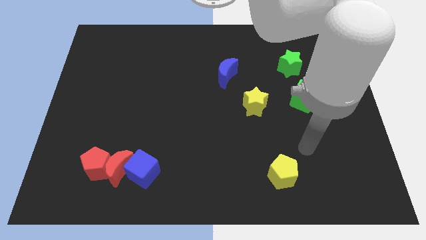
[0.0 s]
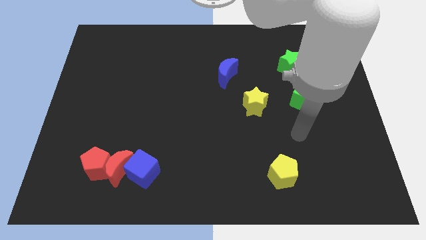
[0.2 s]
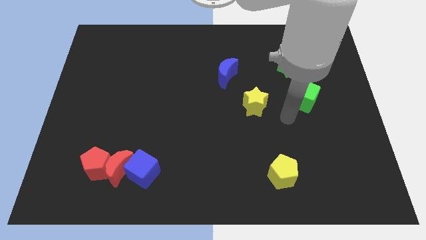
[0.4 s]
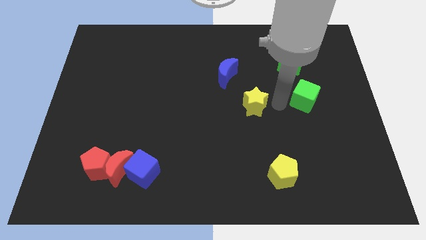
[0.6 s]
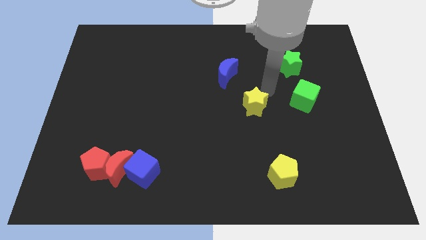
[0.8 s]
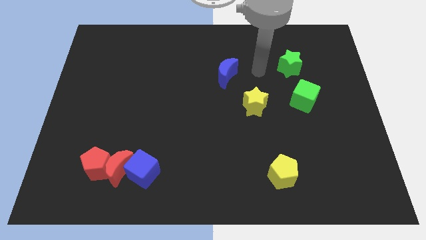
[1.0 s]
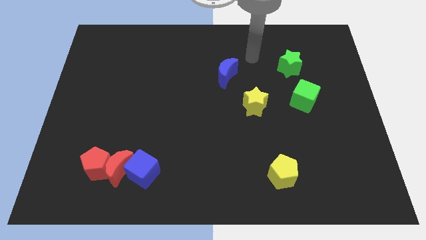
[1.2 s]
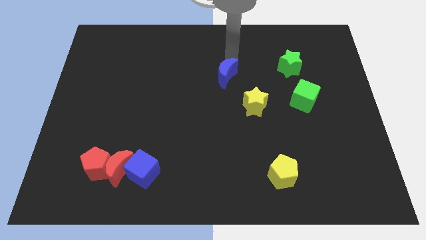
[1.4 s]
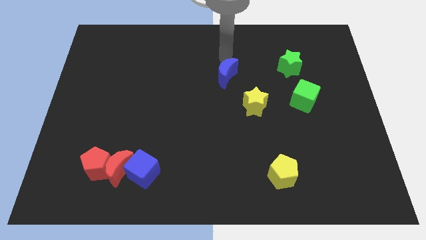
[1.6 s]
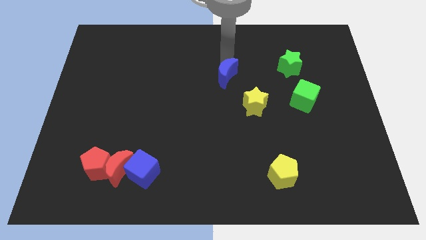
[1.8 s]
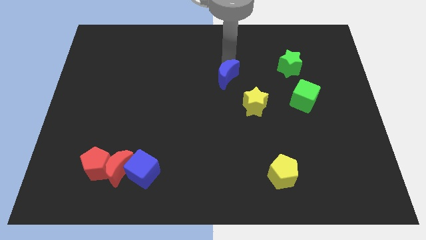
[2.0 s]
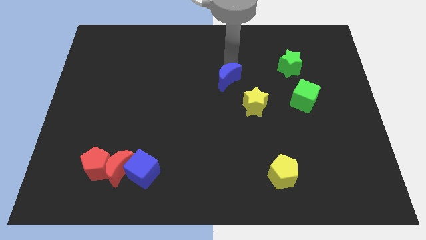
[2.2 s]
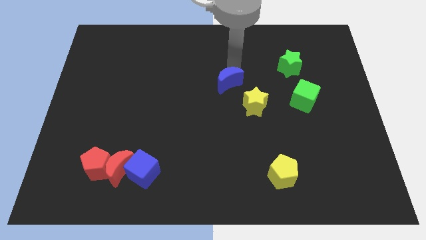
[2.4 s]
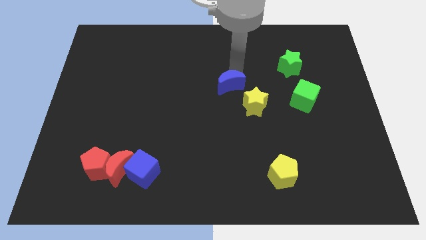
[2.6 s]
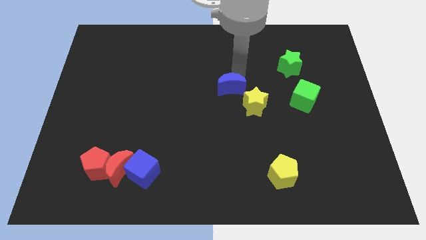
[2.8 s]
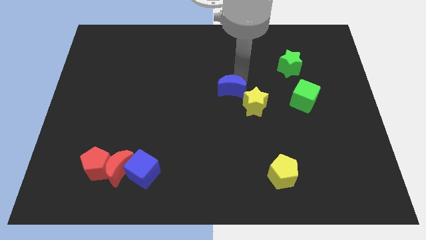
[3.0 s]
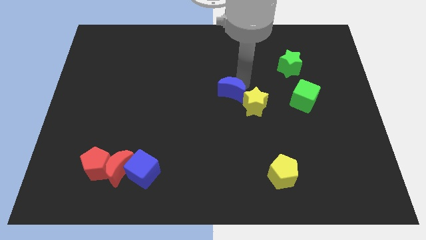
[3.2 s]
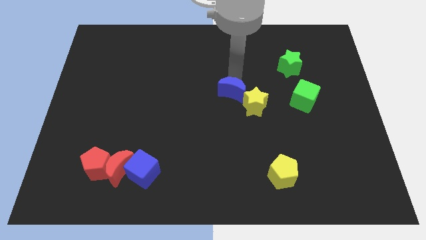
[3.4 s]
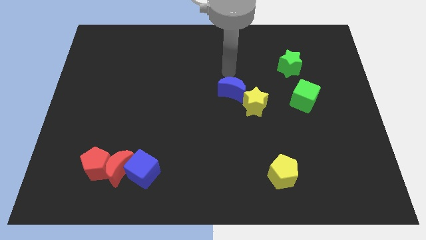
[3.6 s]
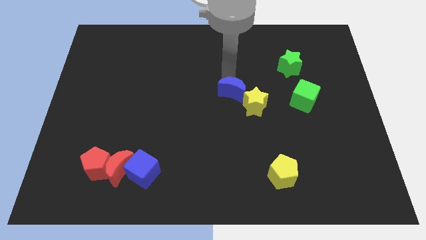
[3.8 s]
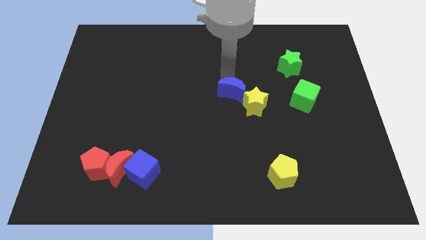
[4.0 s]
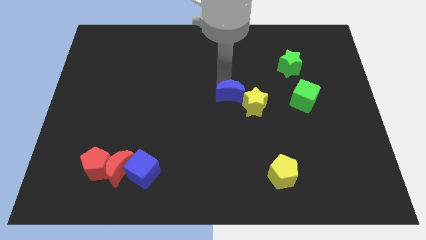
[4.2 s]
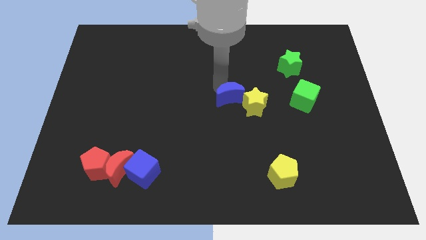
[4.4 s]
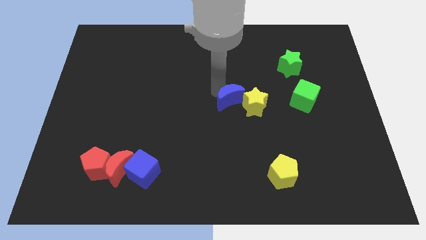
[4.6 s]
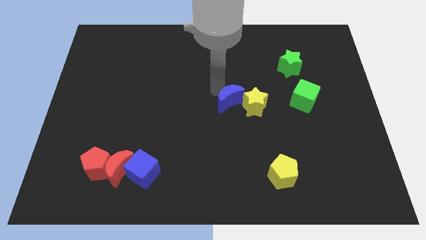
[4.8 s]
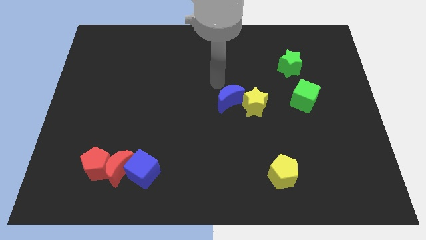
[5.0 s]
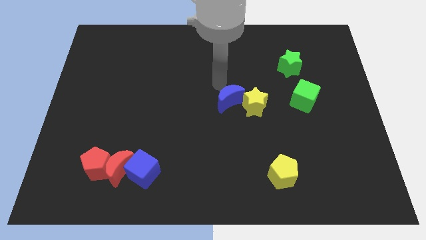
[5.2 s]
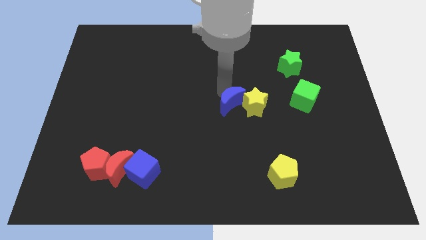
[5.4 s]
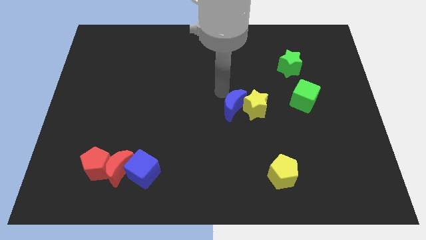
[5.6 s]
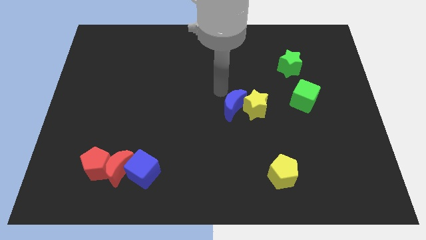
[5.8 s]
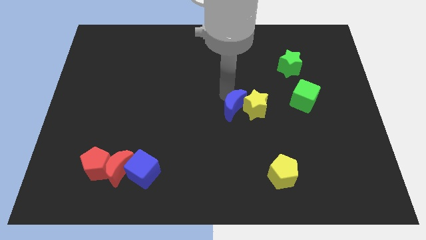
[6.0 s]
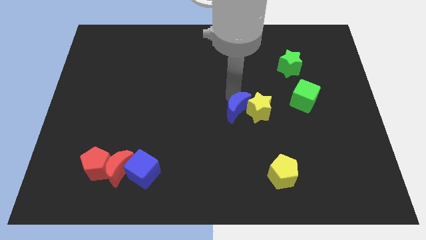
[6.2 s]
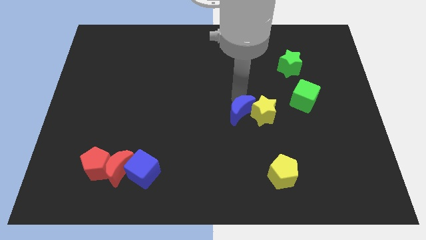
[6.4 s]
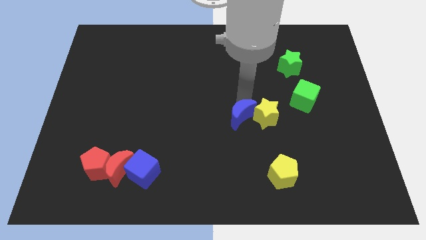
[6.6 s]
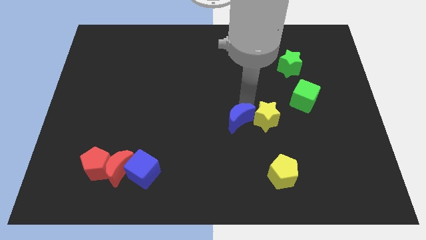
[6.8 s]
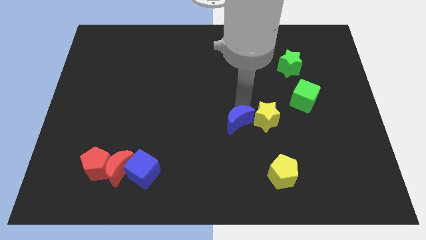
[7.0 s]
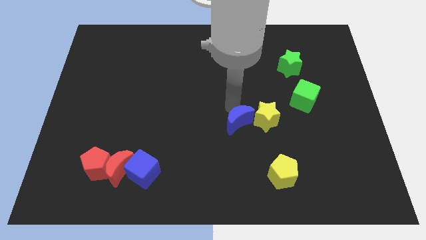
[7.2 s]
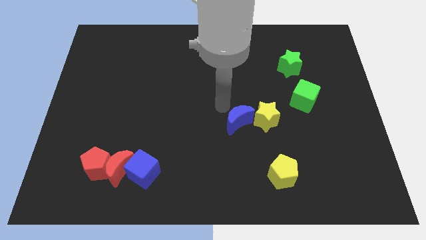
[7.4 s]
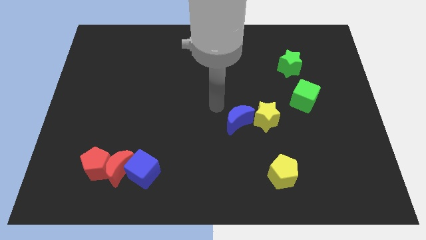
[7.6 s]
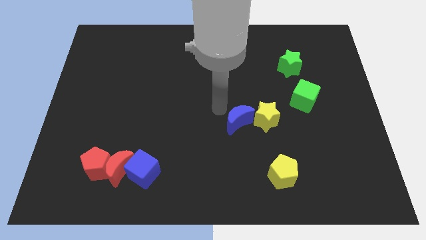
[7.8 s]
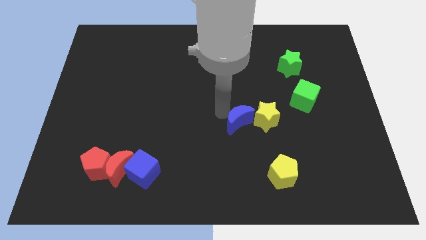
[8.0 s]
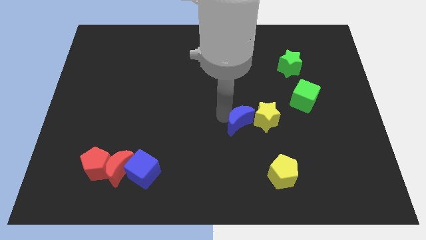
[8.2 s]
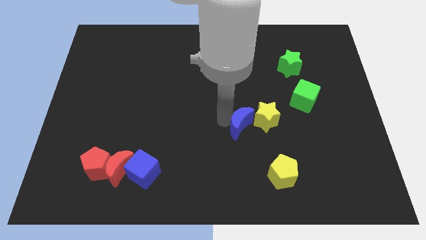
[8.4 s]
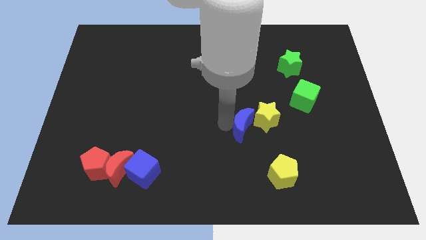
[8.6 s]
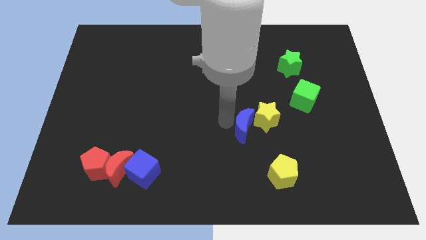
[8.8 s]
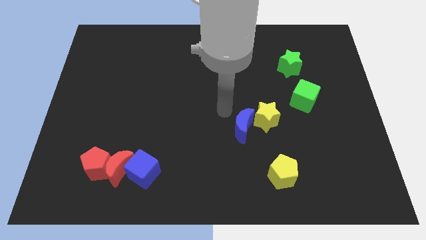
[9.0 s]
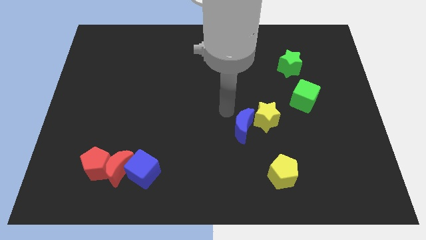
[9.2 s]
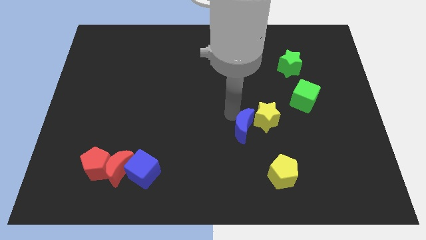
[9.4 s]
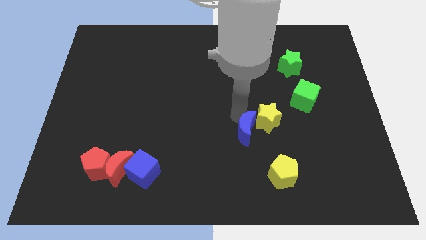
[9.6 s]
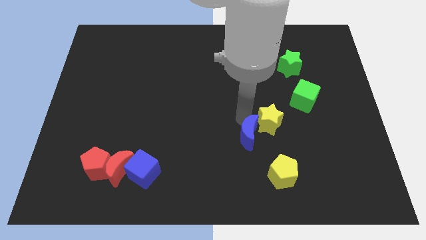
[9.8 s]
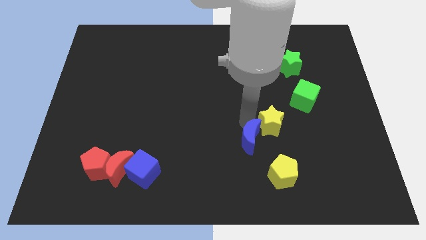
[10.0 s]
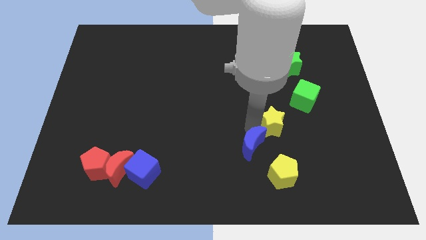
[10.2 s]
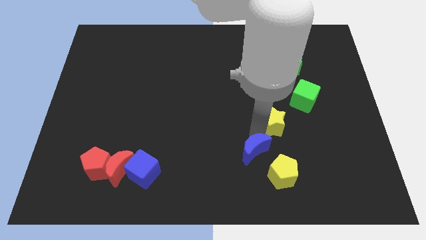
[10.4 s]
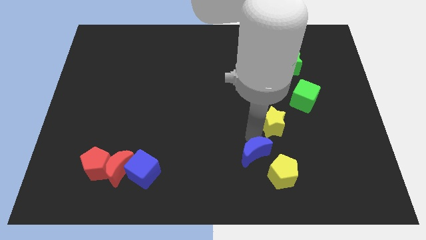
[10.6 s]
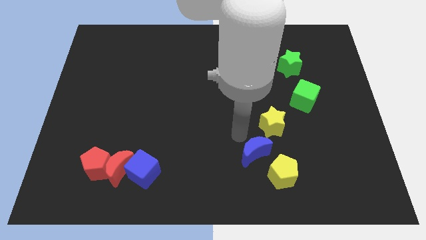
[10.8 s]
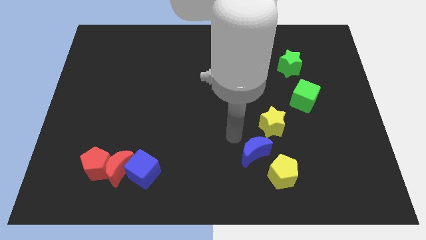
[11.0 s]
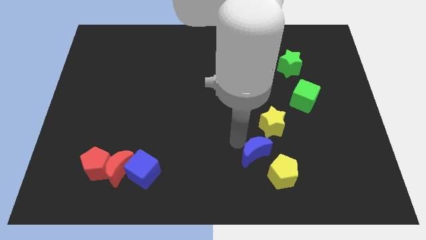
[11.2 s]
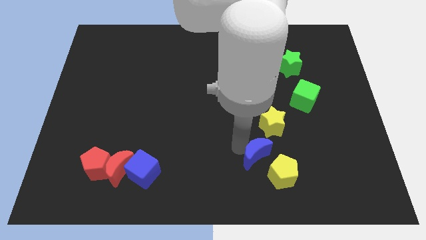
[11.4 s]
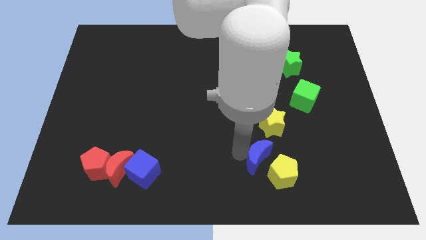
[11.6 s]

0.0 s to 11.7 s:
put the blue moon close to the yellow pentagon
